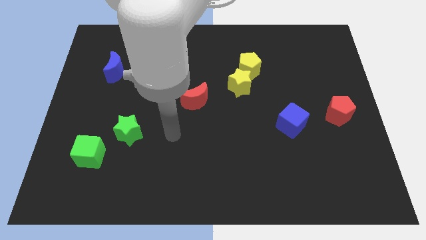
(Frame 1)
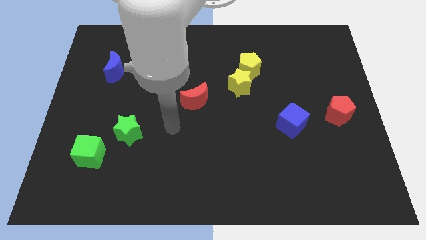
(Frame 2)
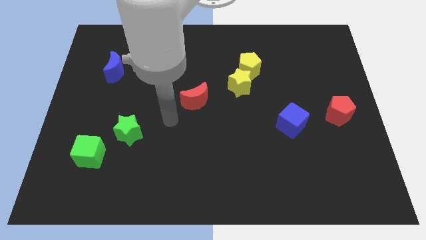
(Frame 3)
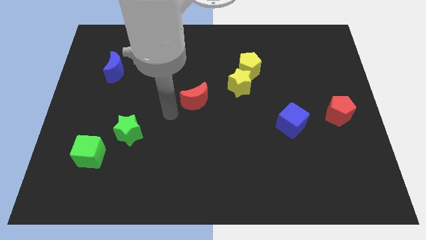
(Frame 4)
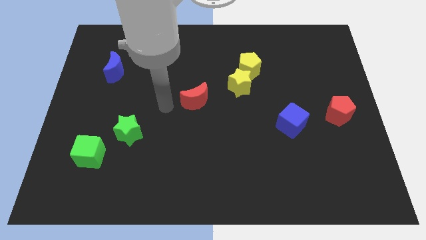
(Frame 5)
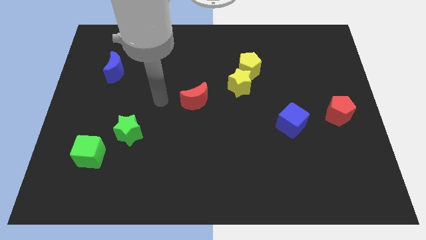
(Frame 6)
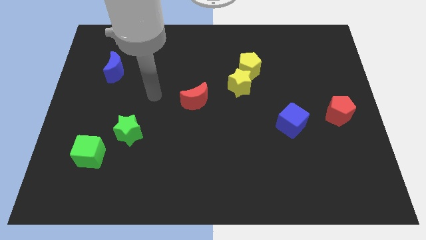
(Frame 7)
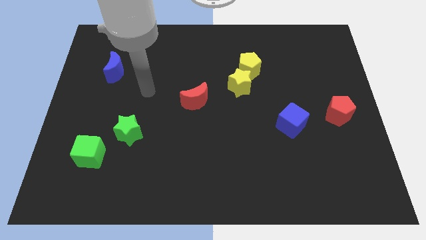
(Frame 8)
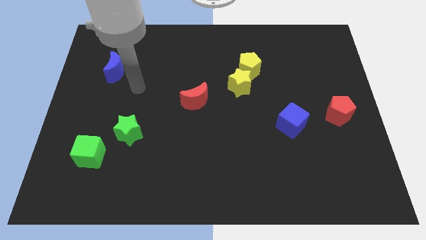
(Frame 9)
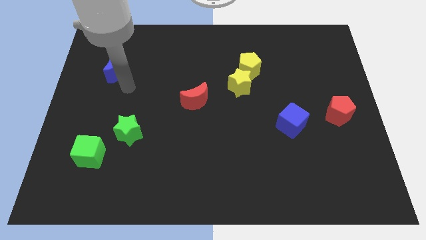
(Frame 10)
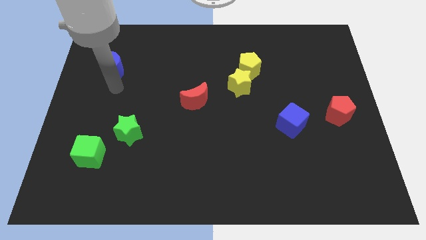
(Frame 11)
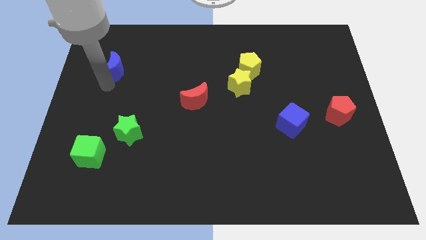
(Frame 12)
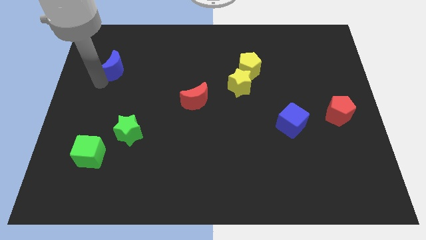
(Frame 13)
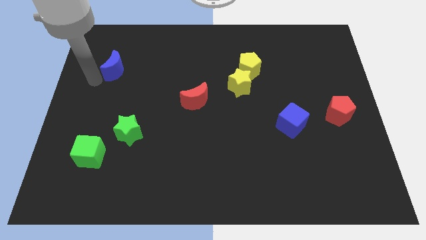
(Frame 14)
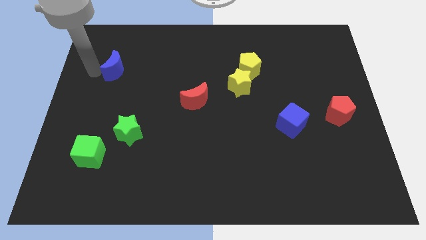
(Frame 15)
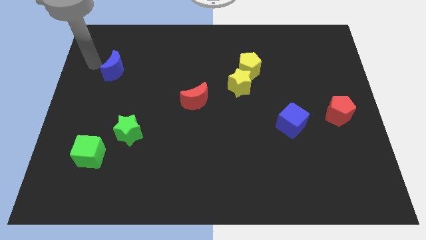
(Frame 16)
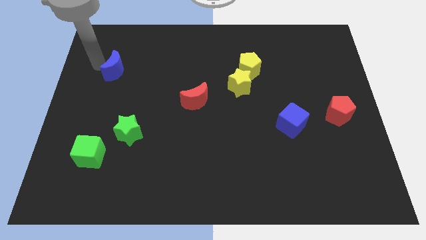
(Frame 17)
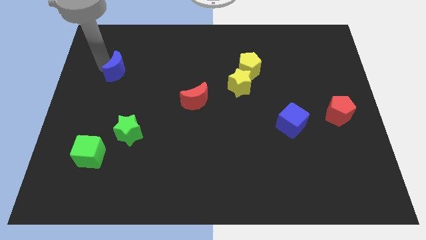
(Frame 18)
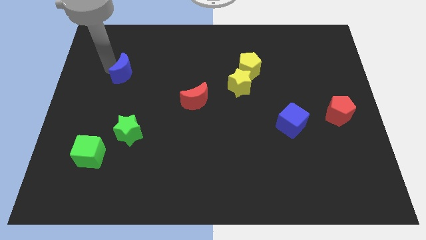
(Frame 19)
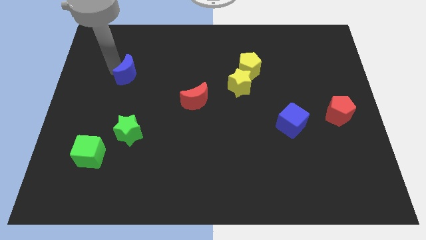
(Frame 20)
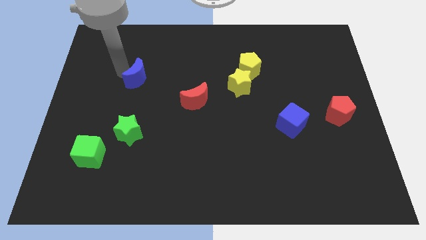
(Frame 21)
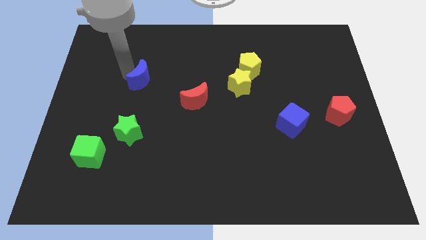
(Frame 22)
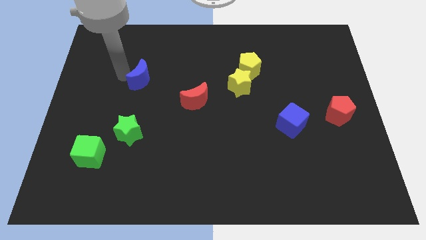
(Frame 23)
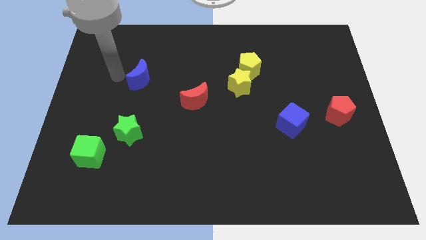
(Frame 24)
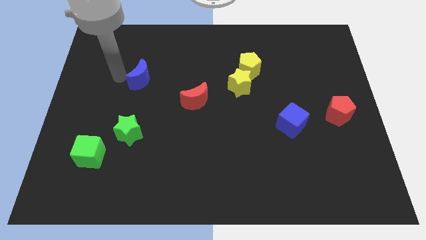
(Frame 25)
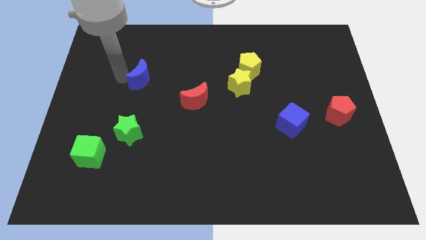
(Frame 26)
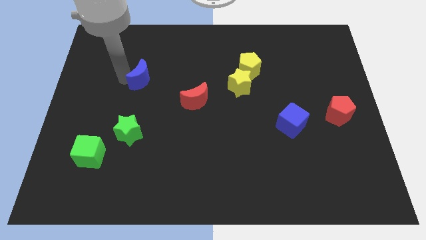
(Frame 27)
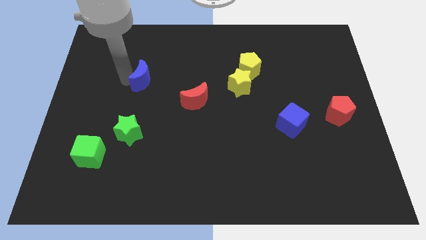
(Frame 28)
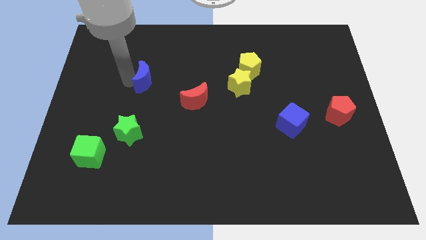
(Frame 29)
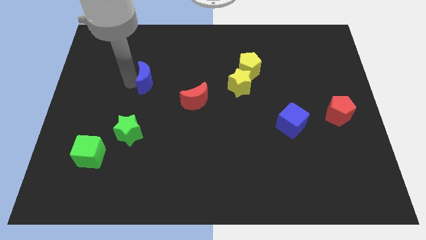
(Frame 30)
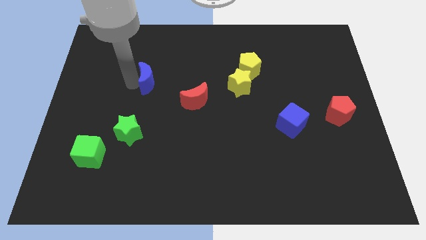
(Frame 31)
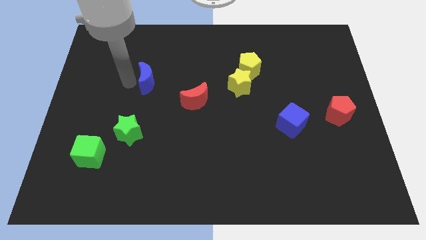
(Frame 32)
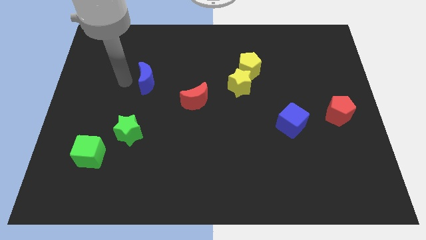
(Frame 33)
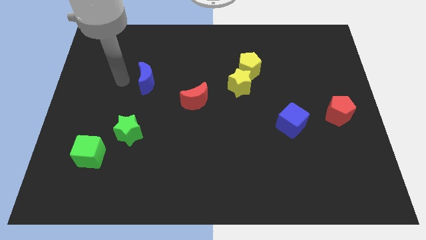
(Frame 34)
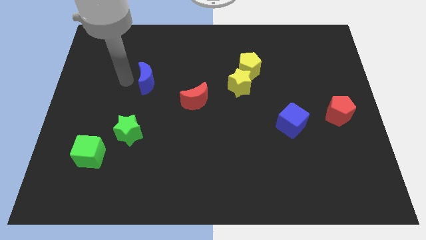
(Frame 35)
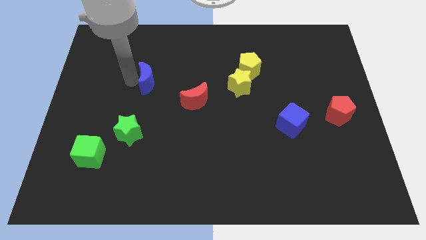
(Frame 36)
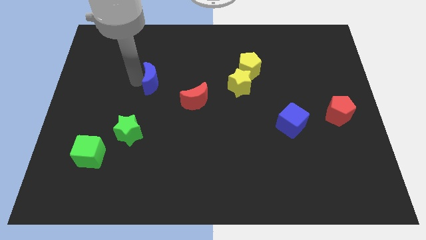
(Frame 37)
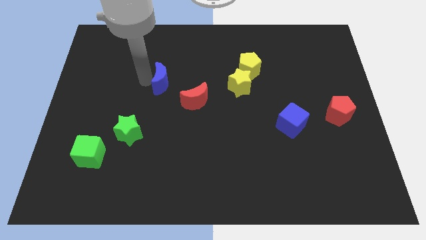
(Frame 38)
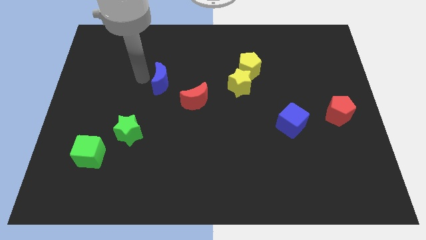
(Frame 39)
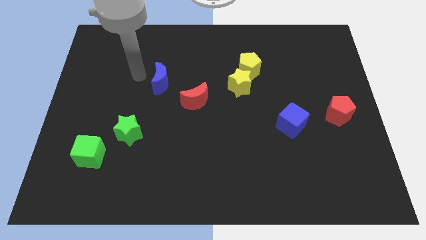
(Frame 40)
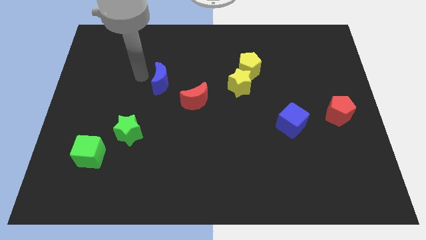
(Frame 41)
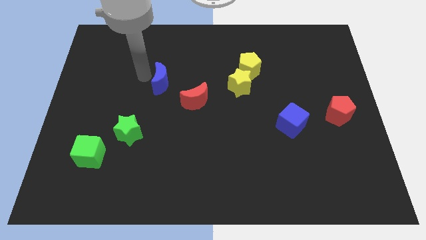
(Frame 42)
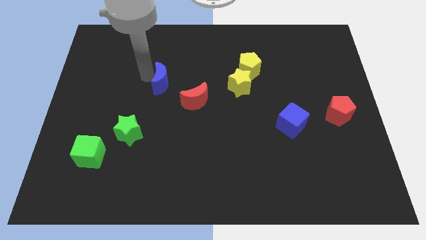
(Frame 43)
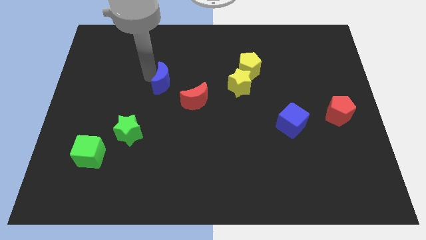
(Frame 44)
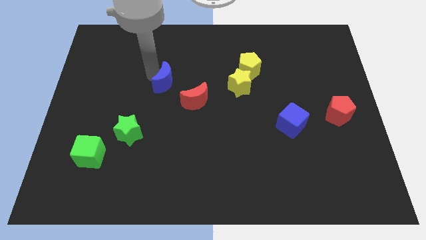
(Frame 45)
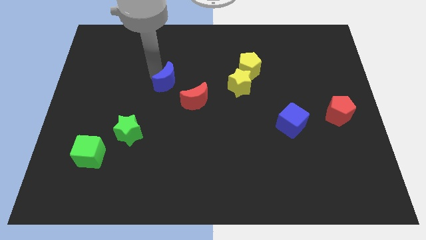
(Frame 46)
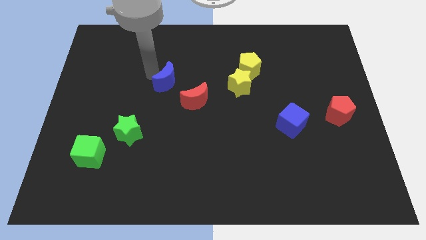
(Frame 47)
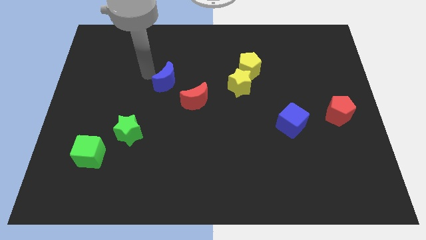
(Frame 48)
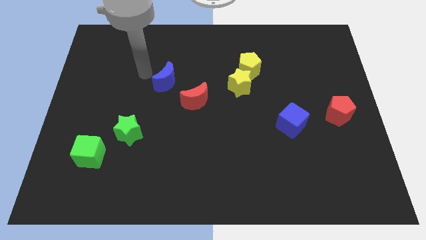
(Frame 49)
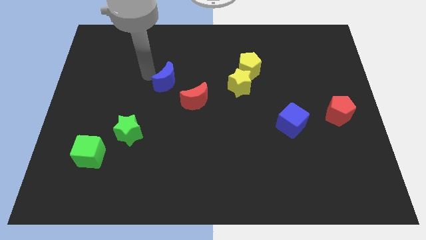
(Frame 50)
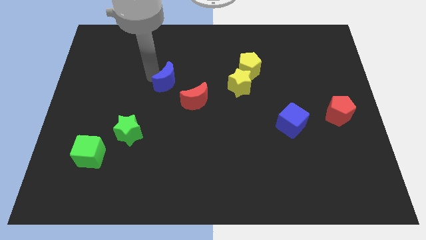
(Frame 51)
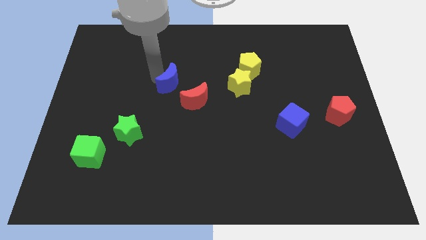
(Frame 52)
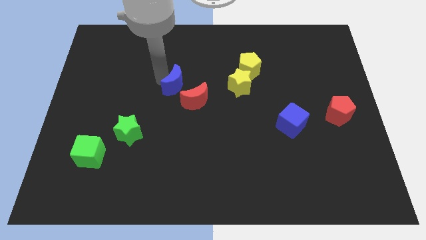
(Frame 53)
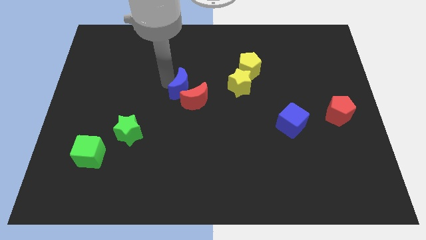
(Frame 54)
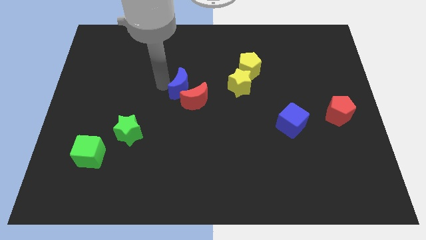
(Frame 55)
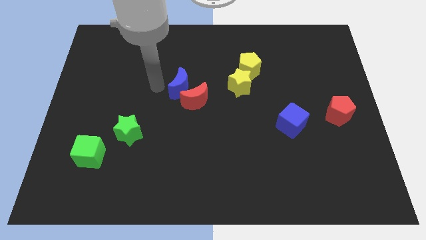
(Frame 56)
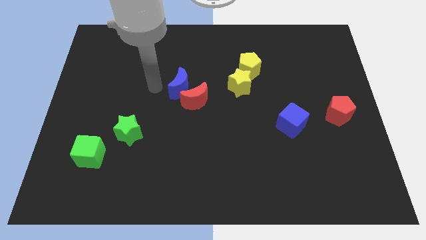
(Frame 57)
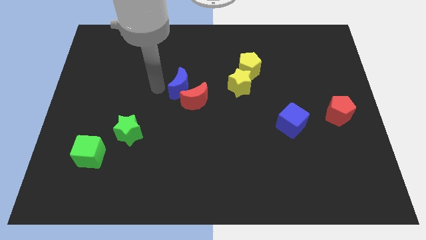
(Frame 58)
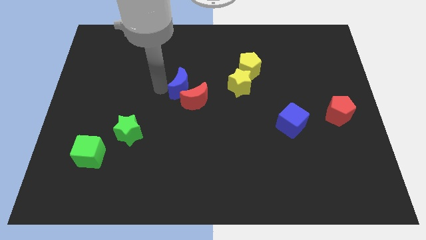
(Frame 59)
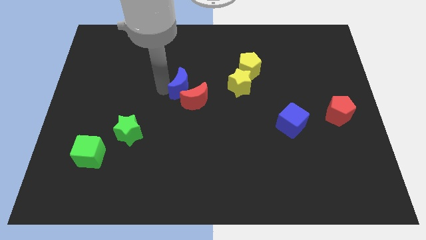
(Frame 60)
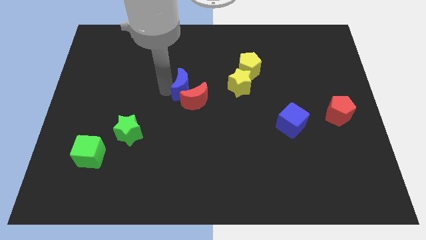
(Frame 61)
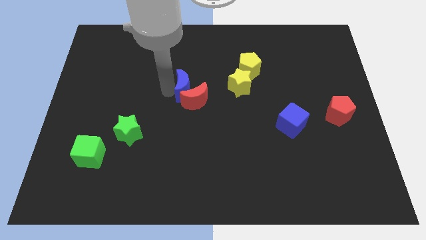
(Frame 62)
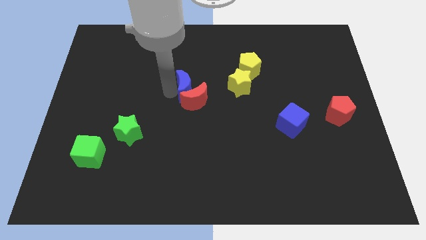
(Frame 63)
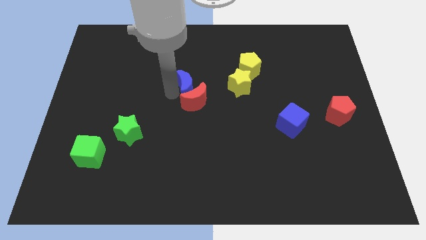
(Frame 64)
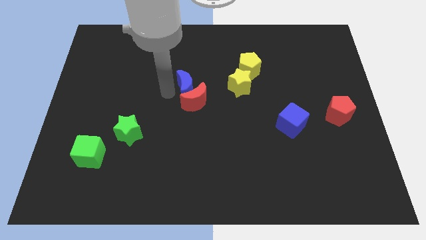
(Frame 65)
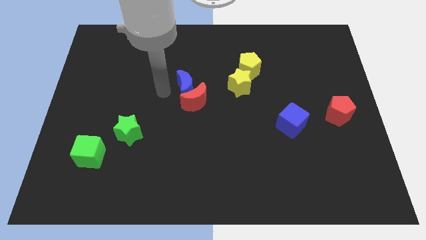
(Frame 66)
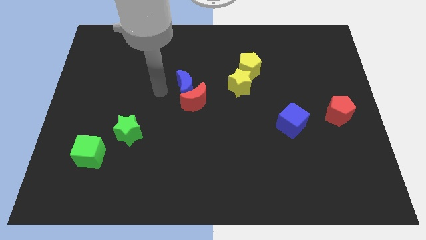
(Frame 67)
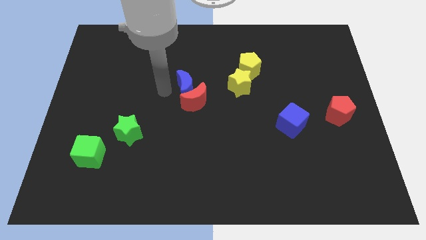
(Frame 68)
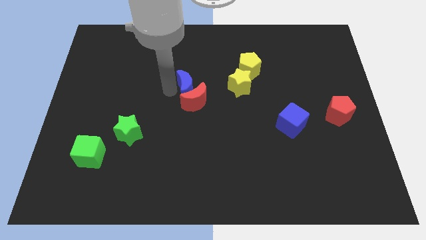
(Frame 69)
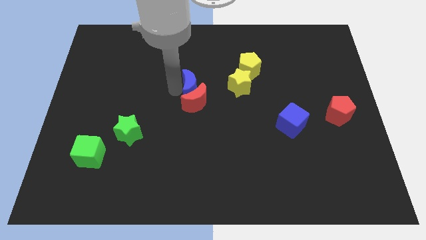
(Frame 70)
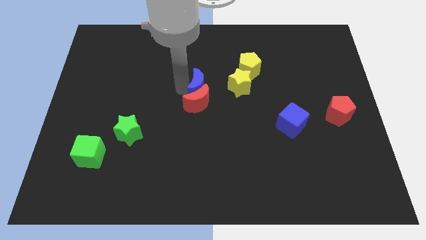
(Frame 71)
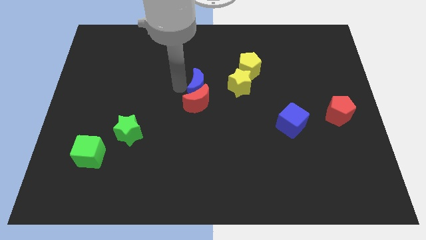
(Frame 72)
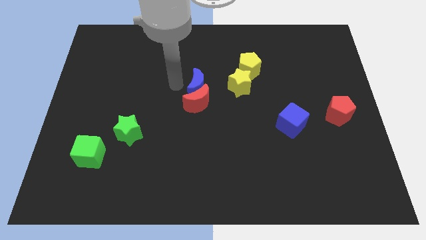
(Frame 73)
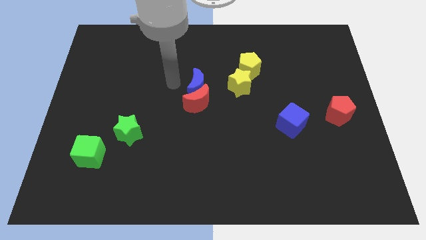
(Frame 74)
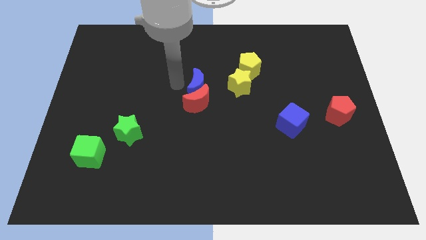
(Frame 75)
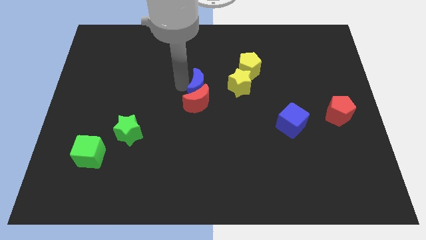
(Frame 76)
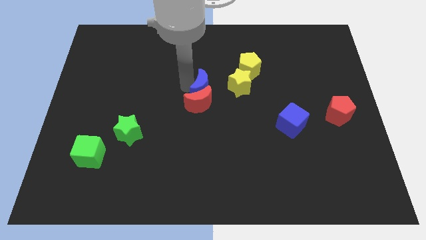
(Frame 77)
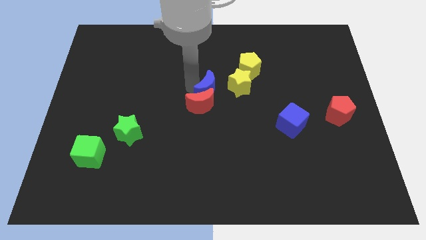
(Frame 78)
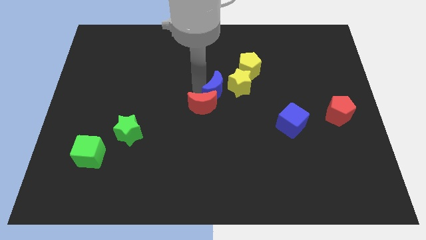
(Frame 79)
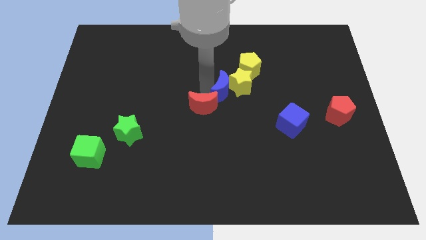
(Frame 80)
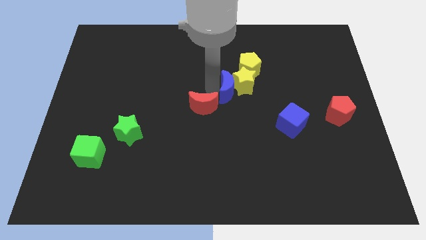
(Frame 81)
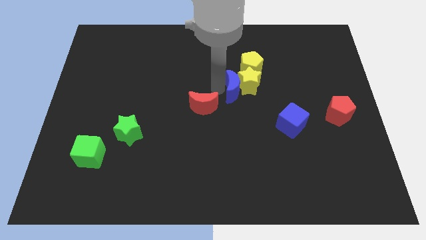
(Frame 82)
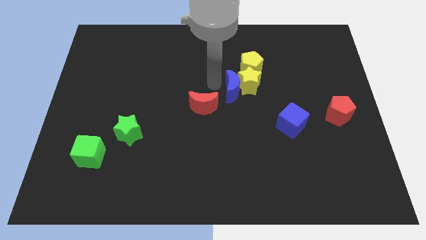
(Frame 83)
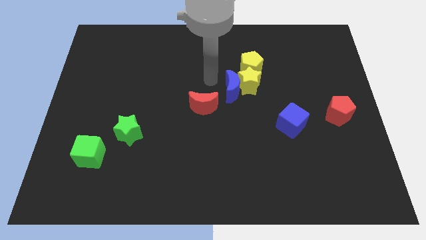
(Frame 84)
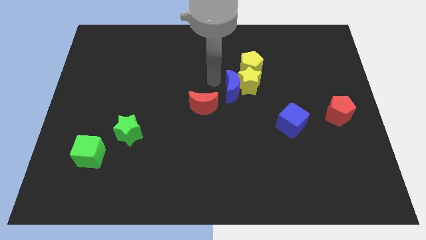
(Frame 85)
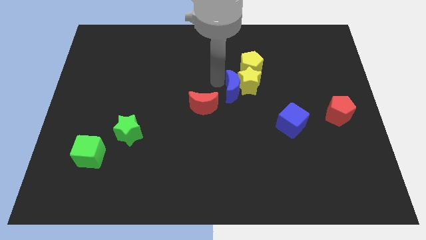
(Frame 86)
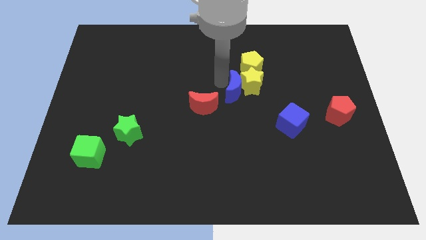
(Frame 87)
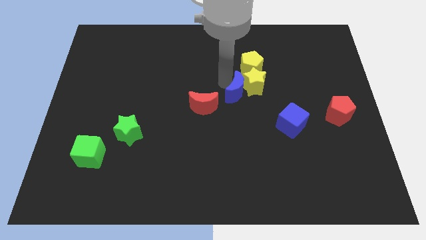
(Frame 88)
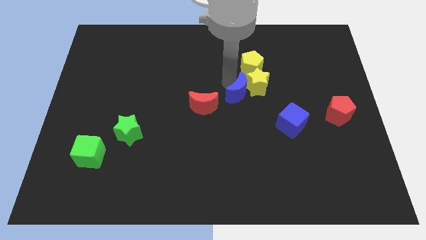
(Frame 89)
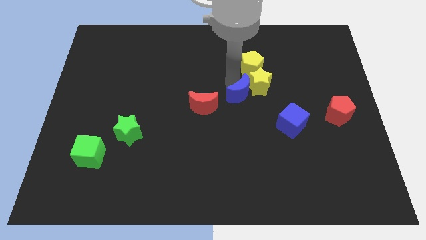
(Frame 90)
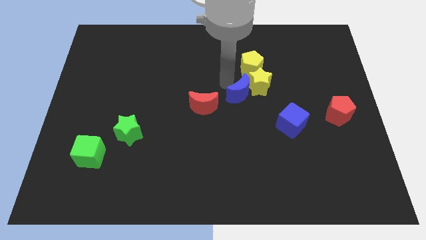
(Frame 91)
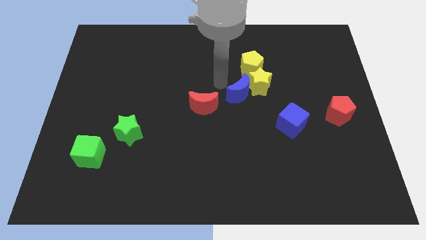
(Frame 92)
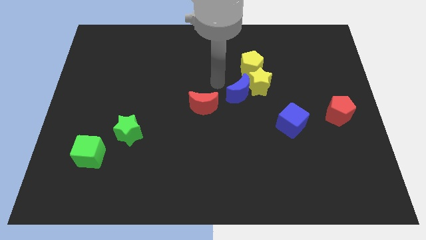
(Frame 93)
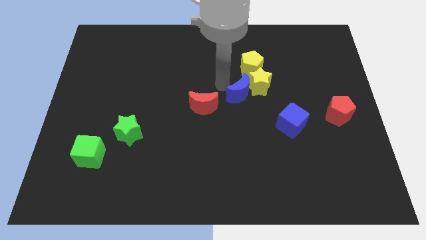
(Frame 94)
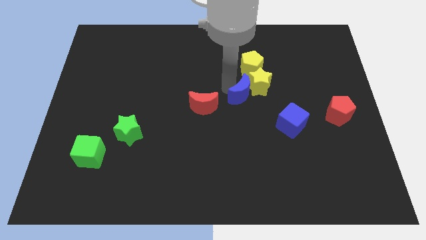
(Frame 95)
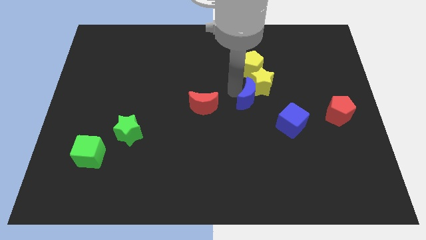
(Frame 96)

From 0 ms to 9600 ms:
move the blue moon to the top left side of the blue cube
